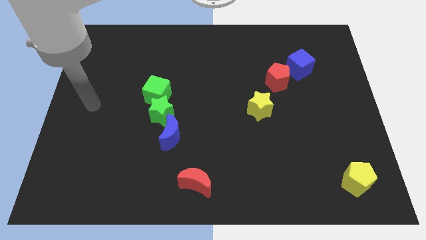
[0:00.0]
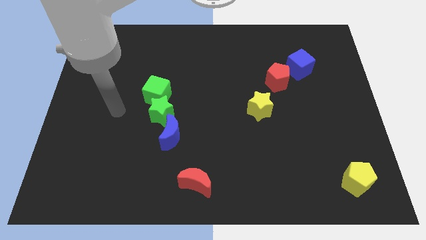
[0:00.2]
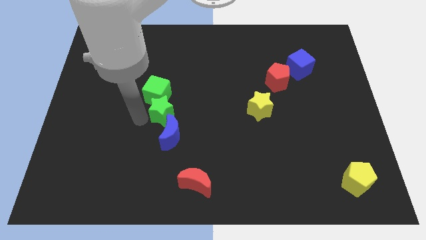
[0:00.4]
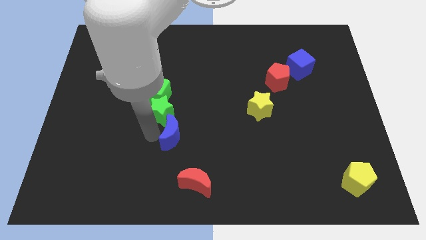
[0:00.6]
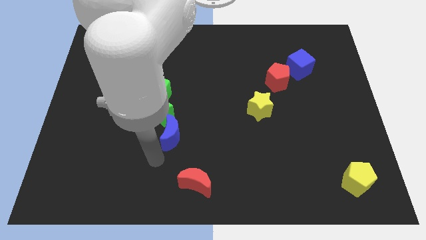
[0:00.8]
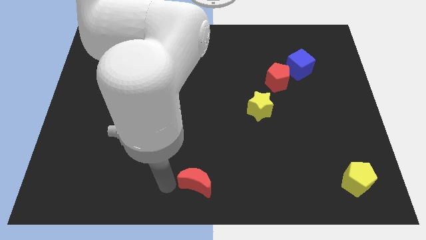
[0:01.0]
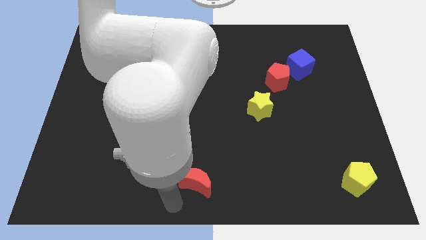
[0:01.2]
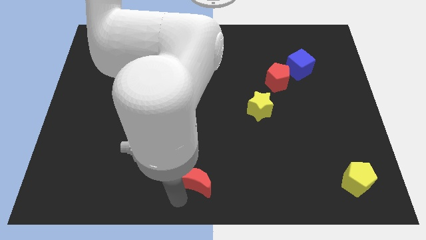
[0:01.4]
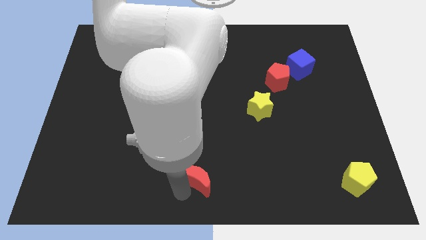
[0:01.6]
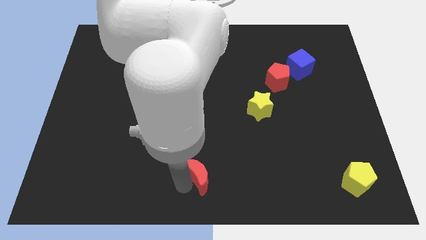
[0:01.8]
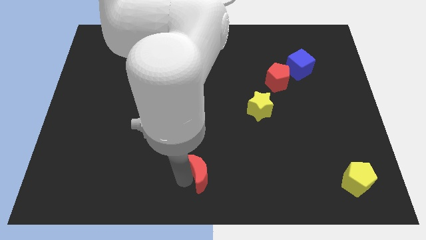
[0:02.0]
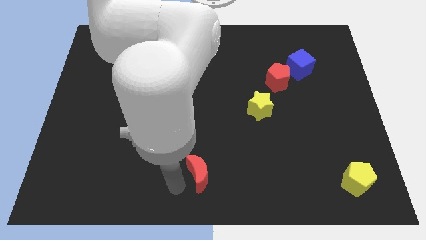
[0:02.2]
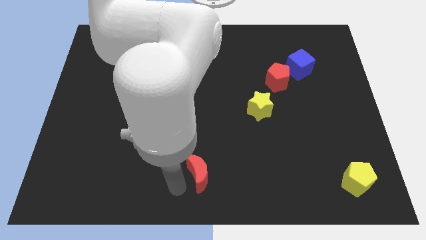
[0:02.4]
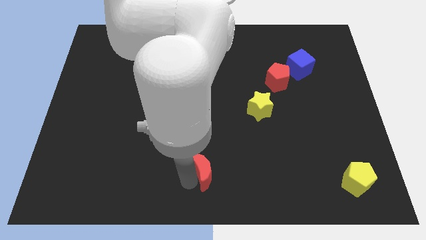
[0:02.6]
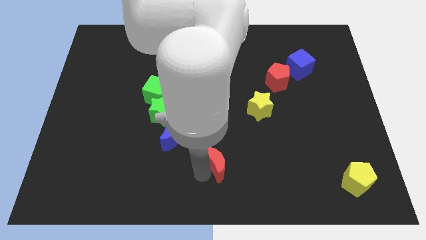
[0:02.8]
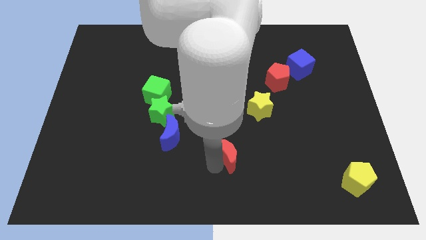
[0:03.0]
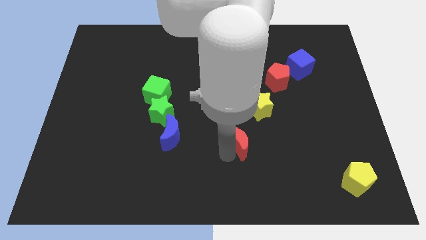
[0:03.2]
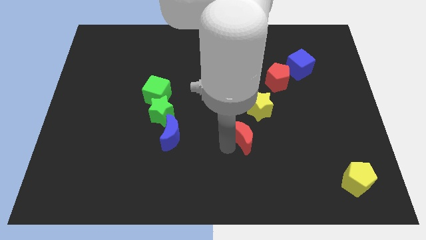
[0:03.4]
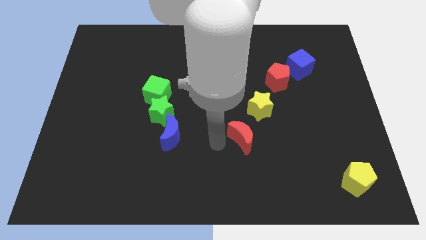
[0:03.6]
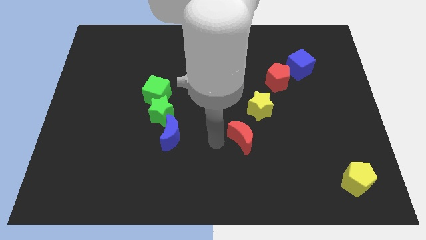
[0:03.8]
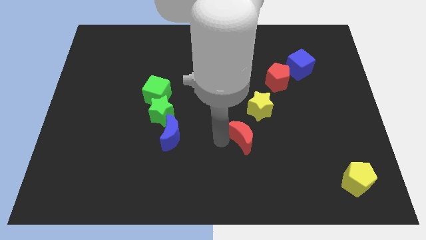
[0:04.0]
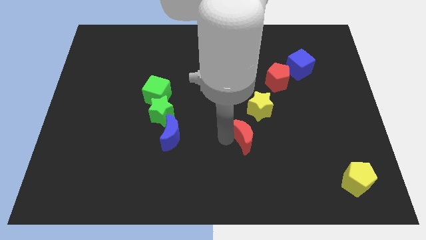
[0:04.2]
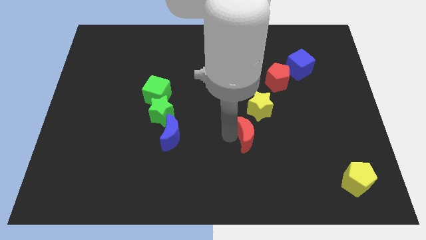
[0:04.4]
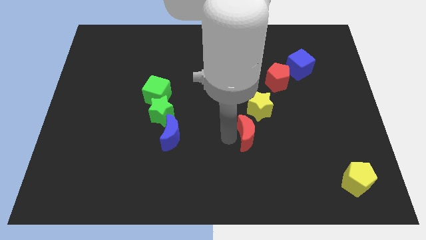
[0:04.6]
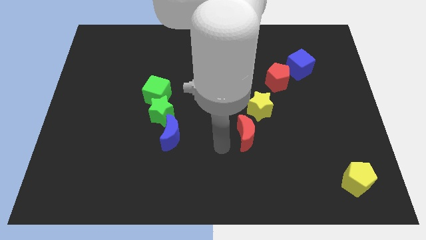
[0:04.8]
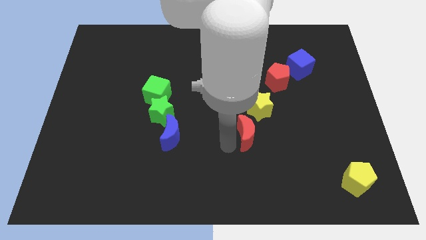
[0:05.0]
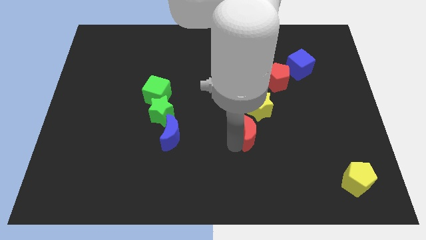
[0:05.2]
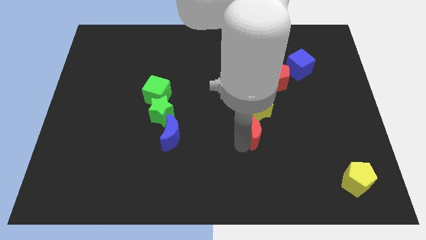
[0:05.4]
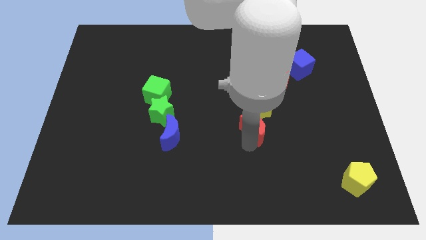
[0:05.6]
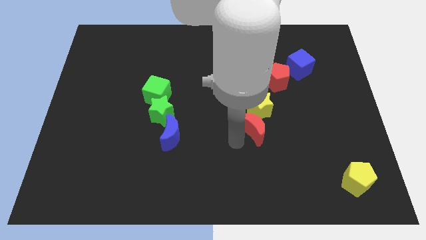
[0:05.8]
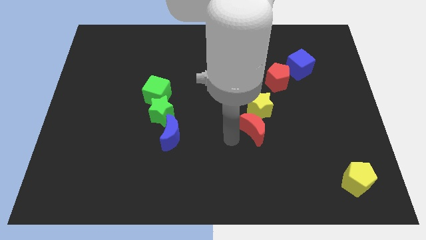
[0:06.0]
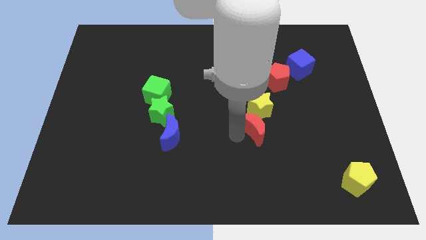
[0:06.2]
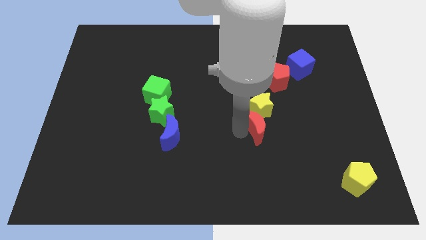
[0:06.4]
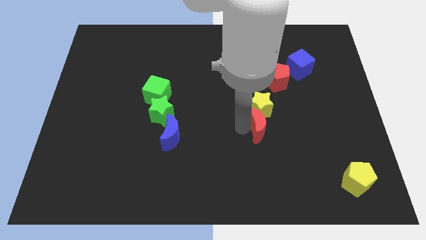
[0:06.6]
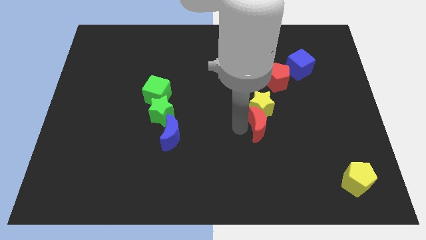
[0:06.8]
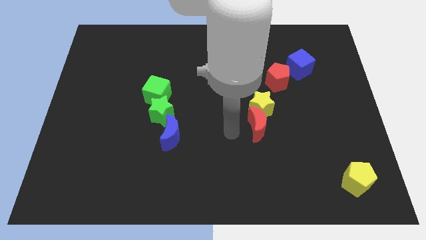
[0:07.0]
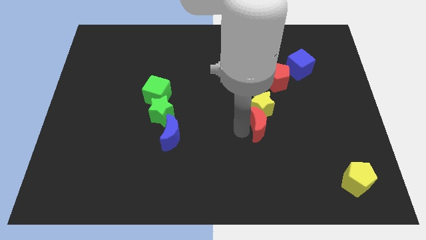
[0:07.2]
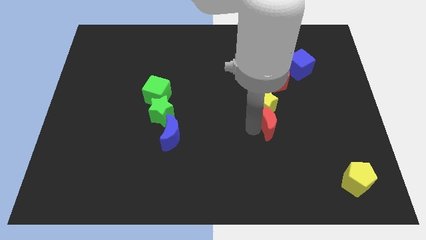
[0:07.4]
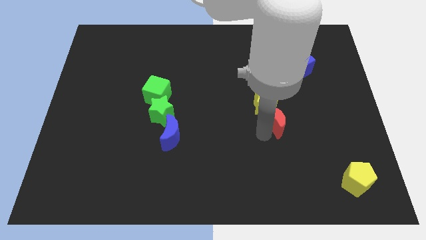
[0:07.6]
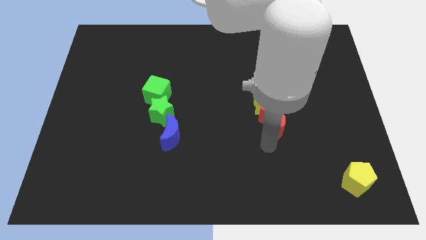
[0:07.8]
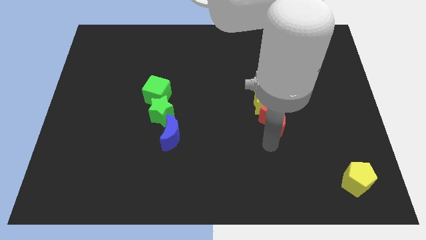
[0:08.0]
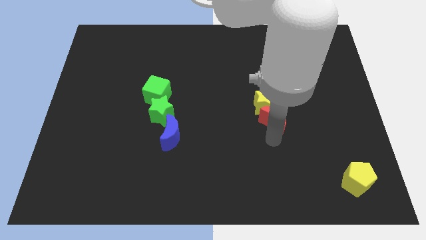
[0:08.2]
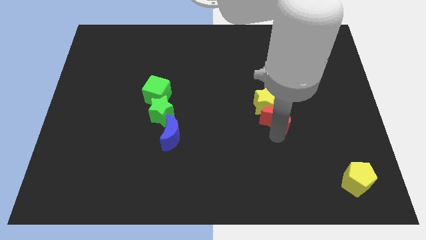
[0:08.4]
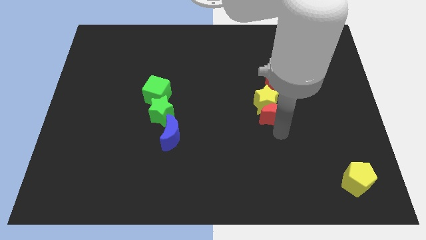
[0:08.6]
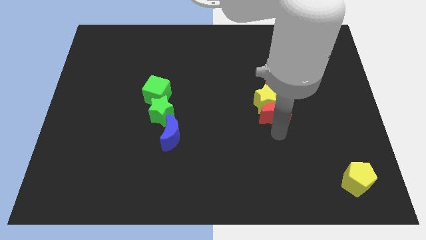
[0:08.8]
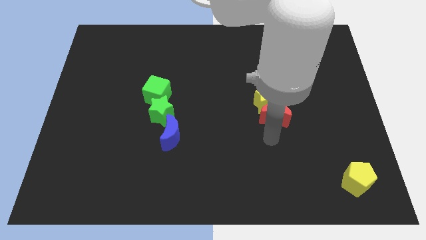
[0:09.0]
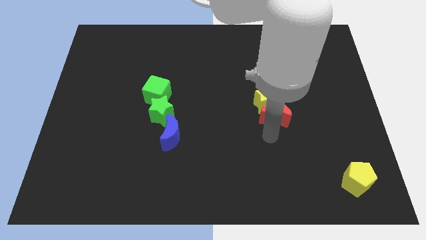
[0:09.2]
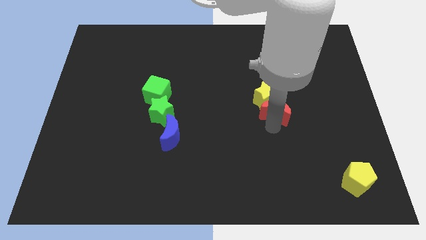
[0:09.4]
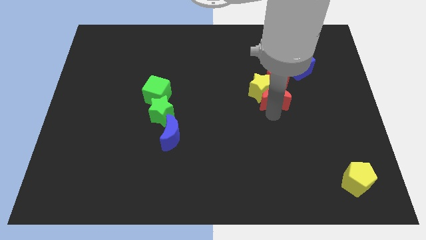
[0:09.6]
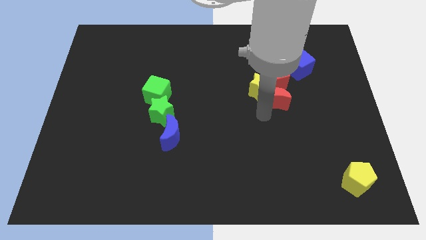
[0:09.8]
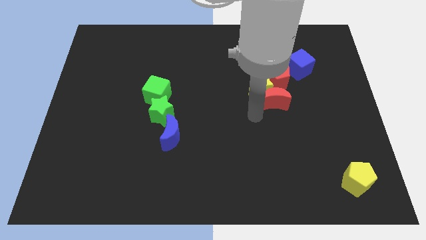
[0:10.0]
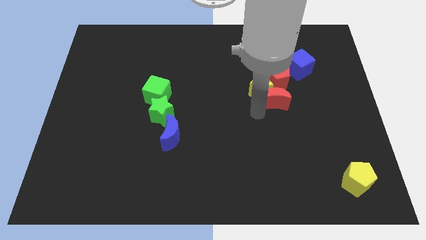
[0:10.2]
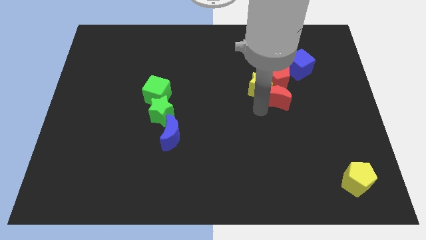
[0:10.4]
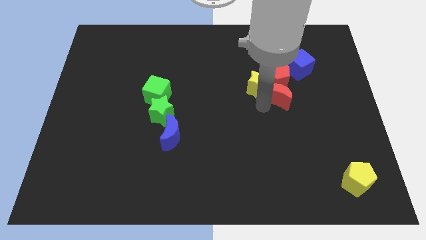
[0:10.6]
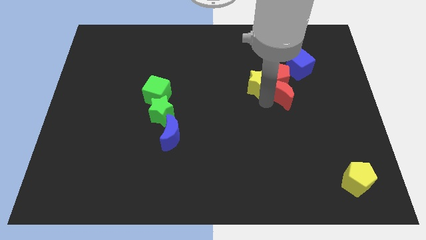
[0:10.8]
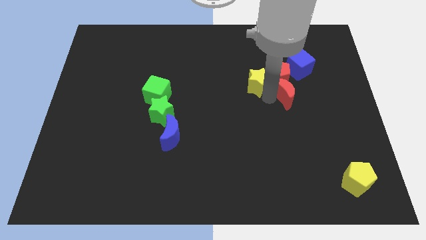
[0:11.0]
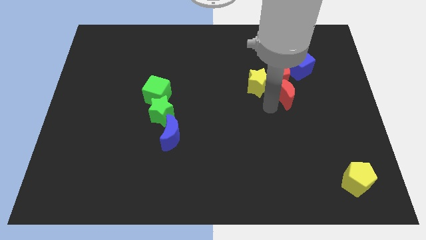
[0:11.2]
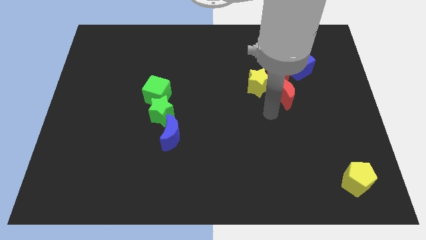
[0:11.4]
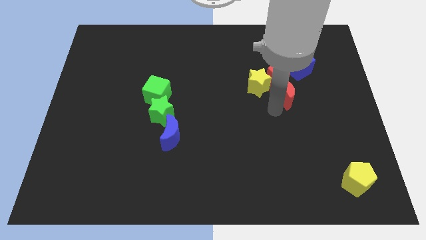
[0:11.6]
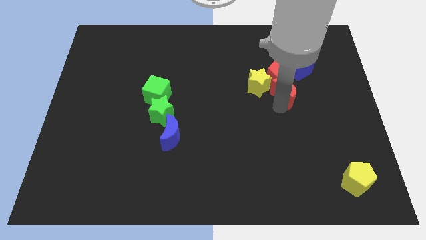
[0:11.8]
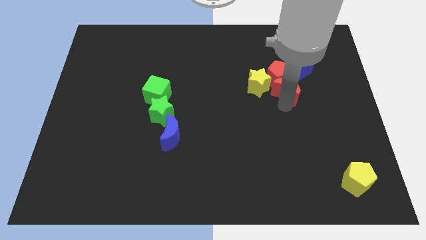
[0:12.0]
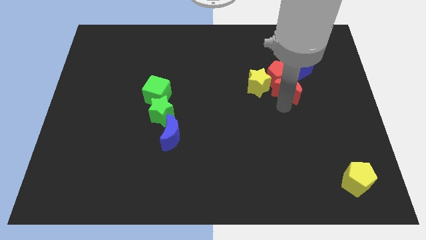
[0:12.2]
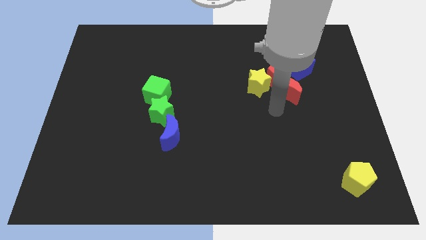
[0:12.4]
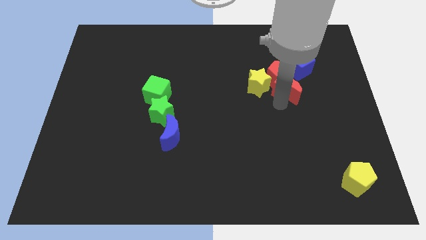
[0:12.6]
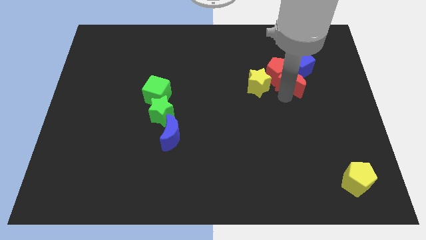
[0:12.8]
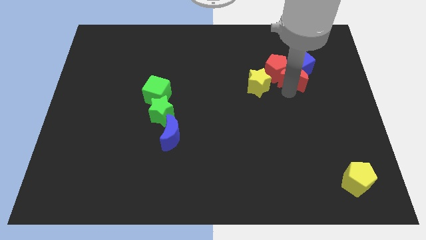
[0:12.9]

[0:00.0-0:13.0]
slide the red moon to the blue cube

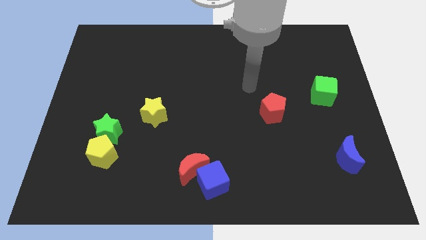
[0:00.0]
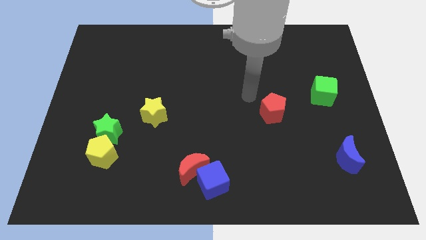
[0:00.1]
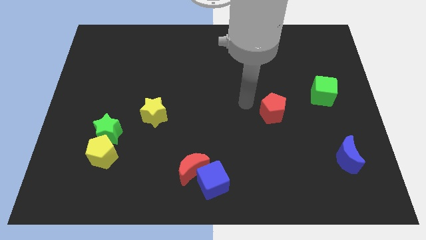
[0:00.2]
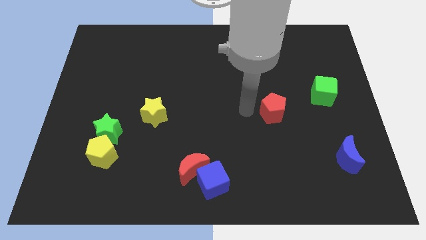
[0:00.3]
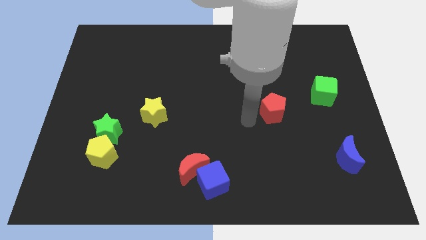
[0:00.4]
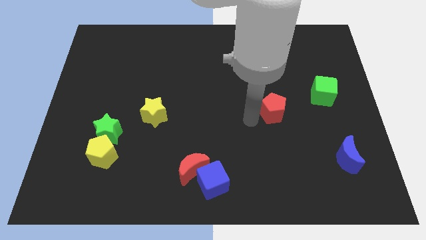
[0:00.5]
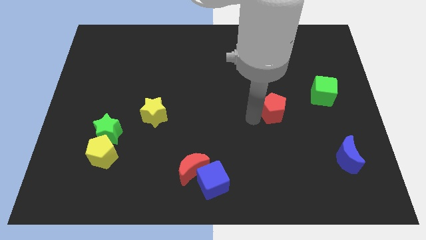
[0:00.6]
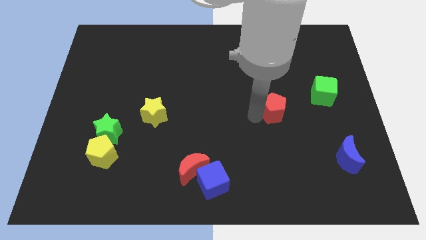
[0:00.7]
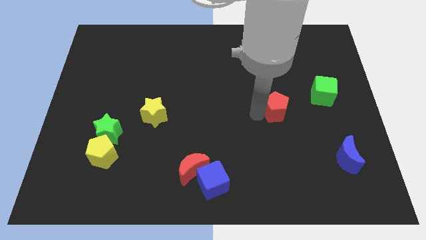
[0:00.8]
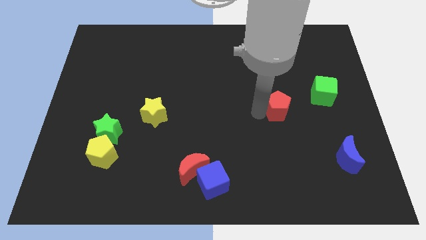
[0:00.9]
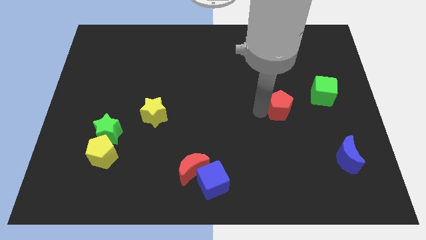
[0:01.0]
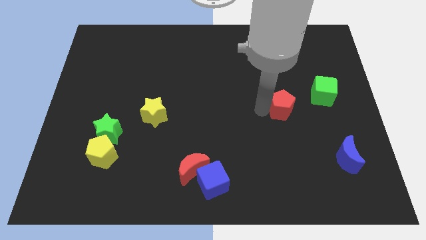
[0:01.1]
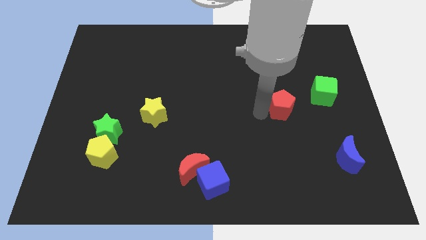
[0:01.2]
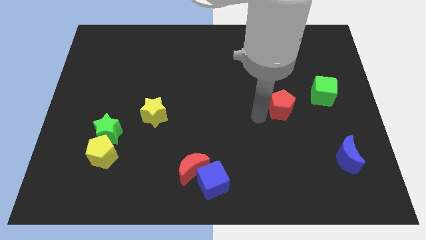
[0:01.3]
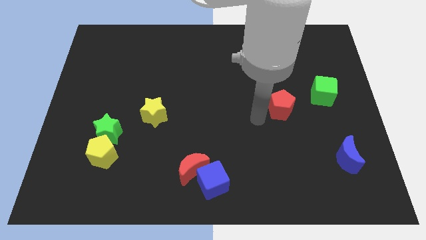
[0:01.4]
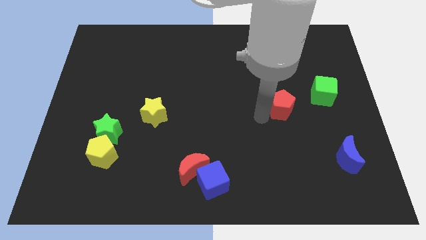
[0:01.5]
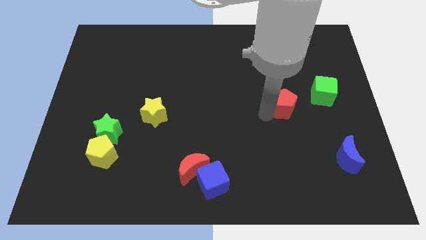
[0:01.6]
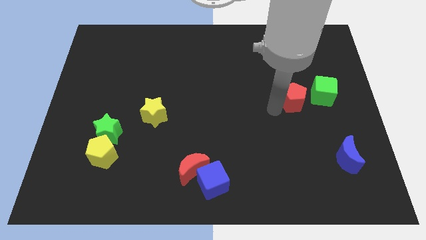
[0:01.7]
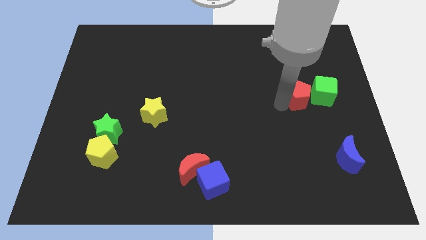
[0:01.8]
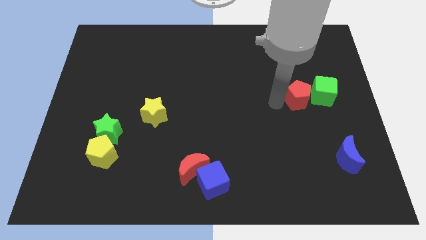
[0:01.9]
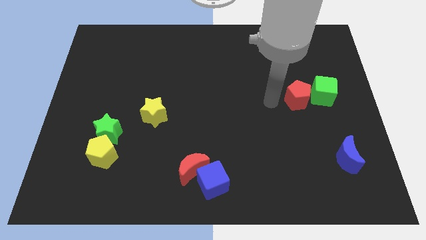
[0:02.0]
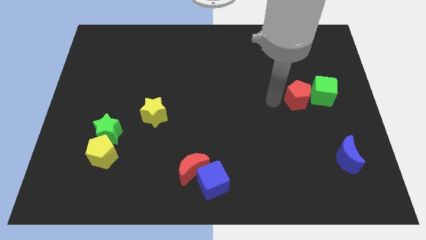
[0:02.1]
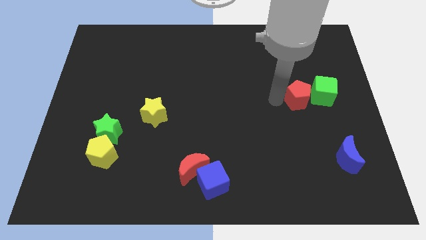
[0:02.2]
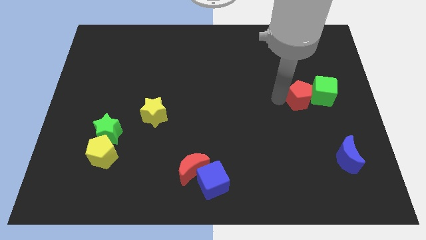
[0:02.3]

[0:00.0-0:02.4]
put the red pentagon to the green cube
